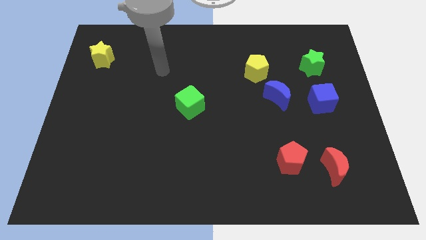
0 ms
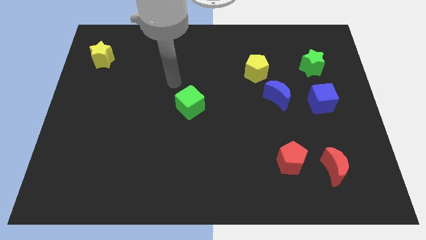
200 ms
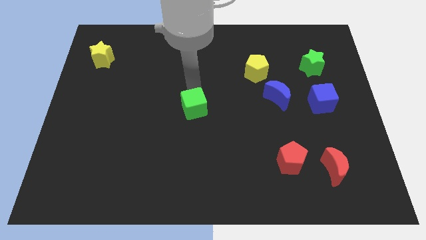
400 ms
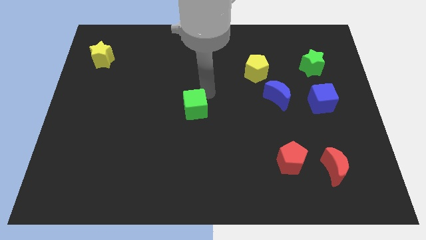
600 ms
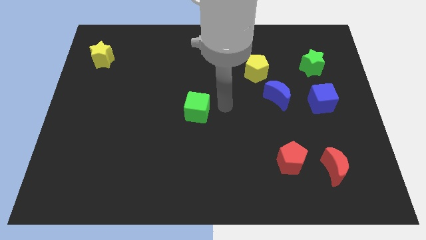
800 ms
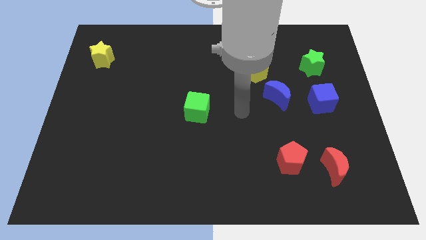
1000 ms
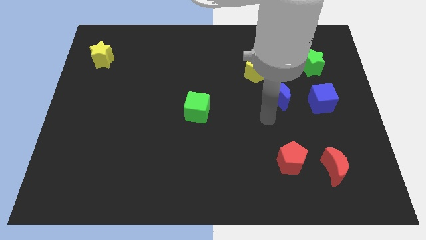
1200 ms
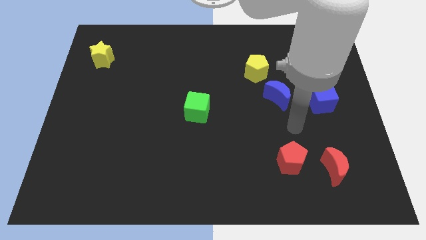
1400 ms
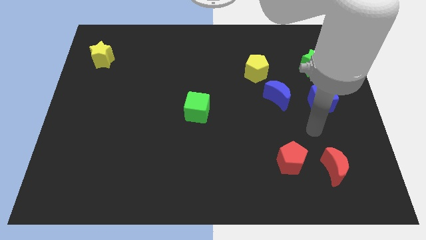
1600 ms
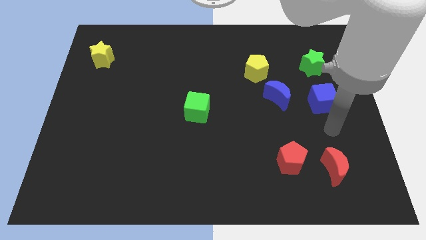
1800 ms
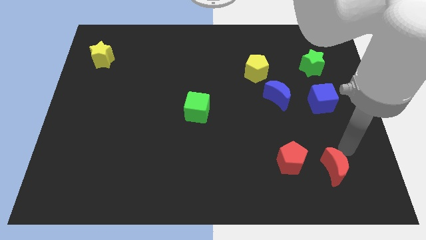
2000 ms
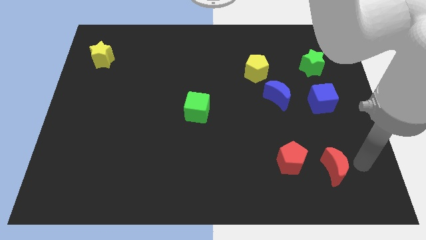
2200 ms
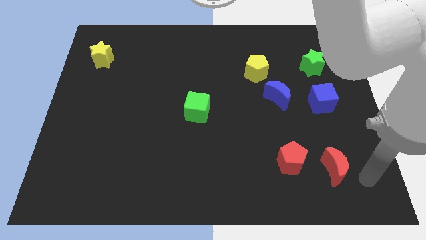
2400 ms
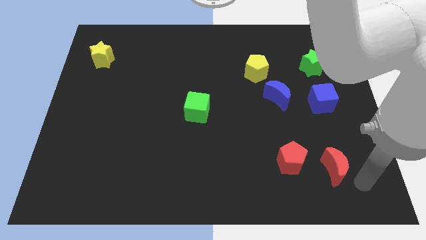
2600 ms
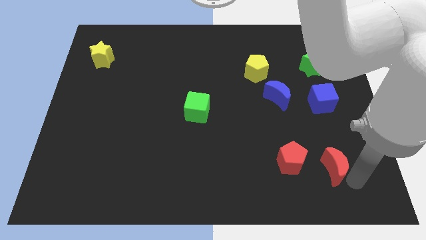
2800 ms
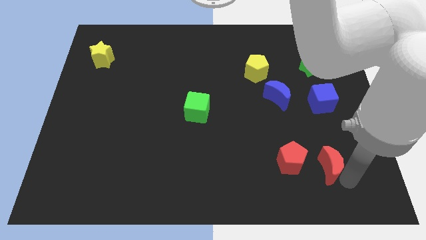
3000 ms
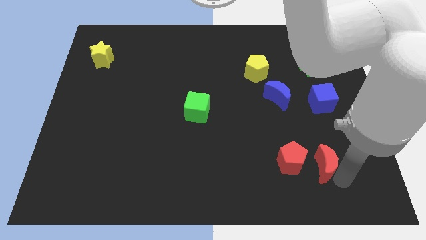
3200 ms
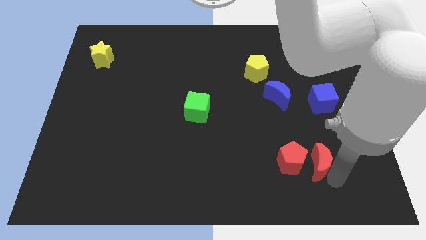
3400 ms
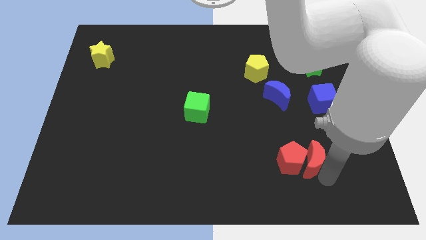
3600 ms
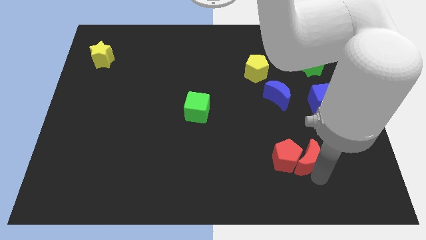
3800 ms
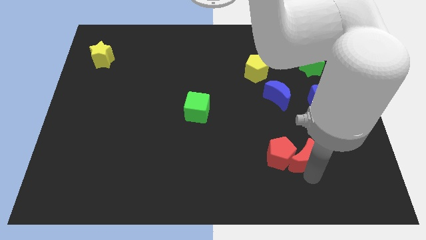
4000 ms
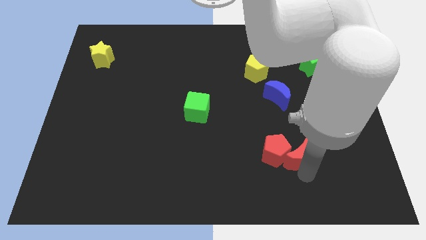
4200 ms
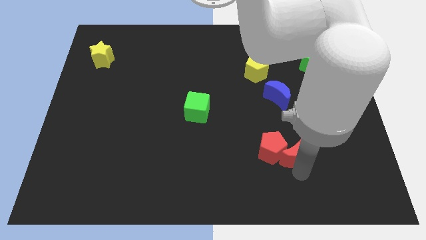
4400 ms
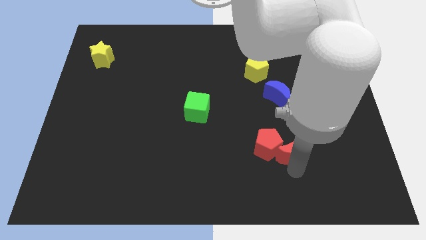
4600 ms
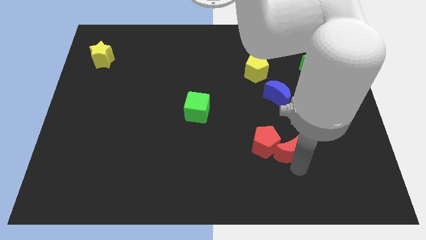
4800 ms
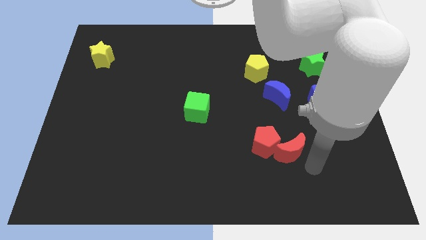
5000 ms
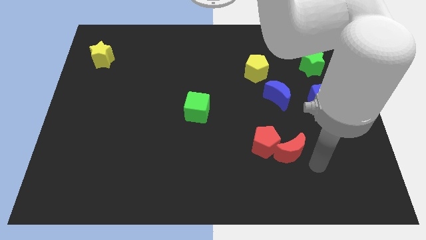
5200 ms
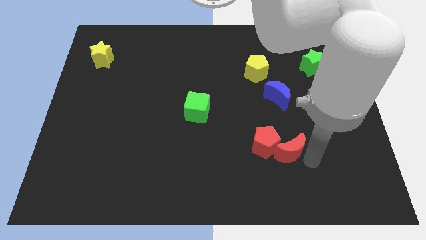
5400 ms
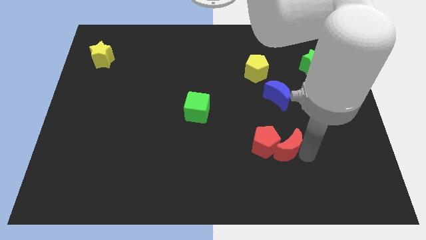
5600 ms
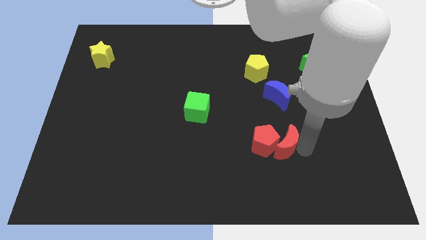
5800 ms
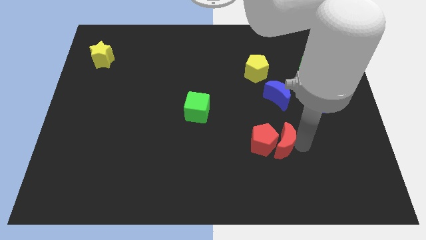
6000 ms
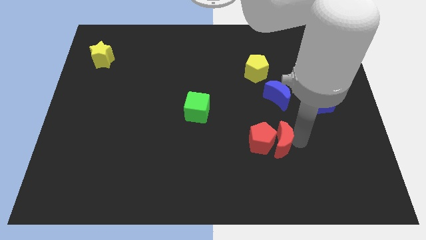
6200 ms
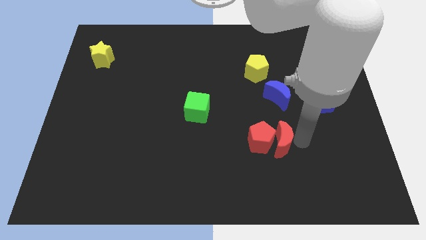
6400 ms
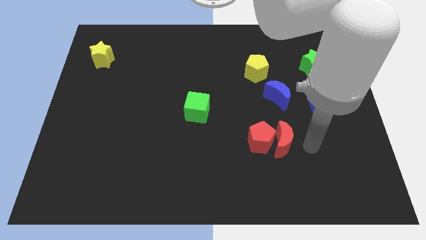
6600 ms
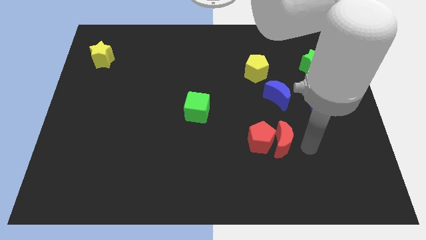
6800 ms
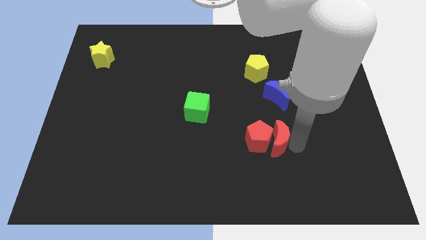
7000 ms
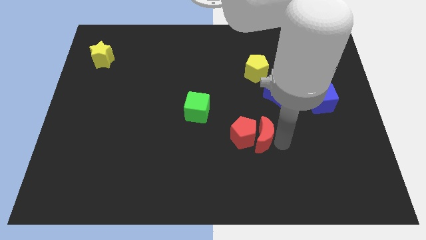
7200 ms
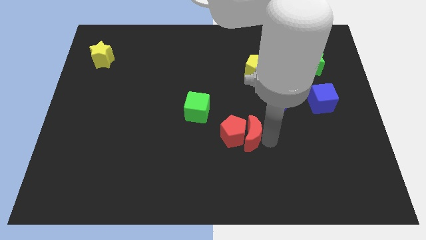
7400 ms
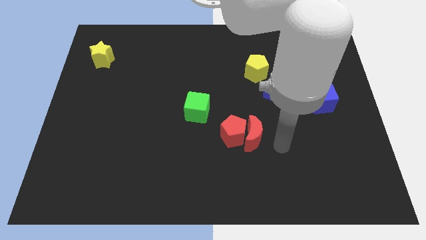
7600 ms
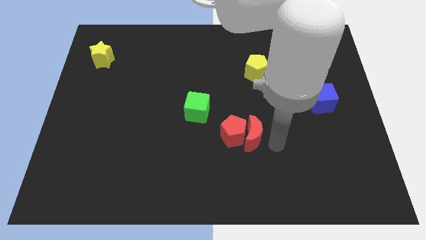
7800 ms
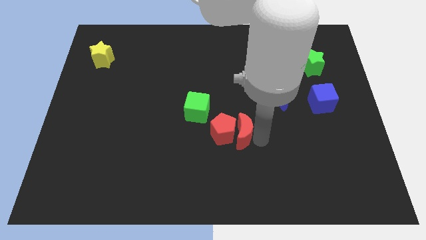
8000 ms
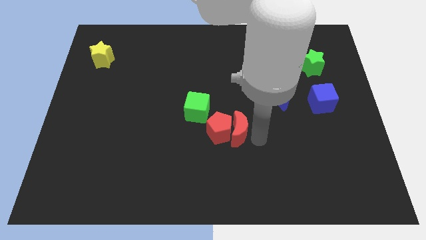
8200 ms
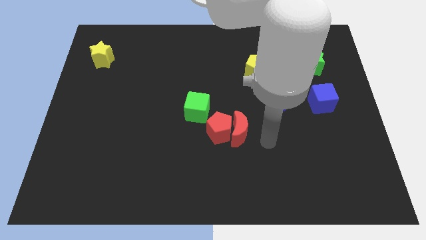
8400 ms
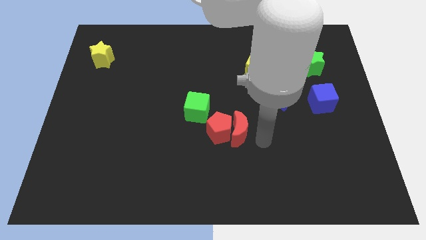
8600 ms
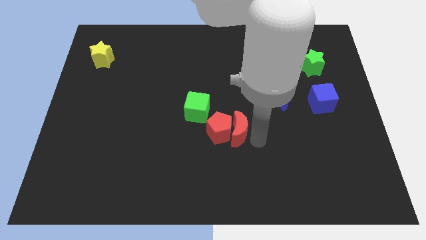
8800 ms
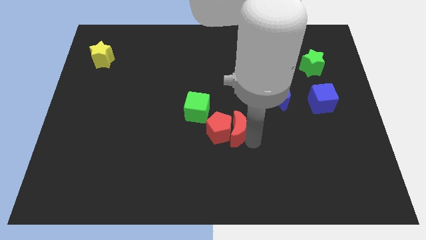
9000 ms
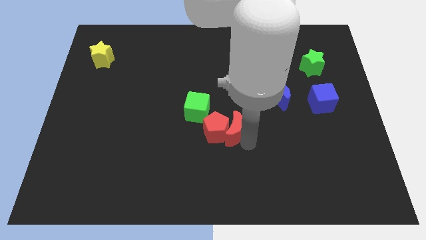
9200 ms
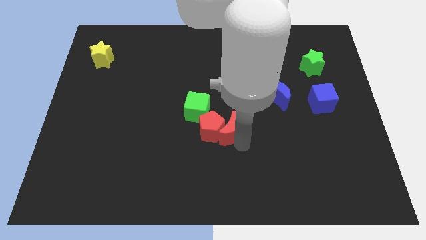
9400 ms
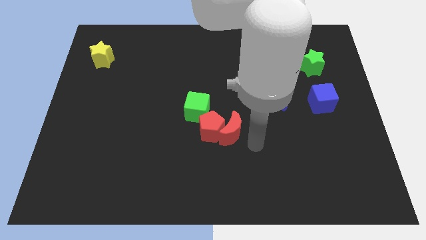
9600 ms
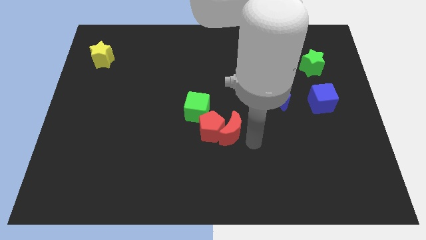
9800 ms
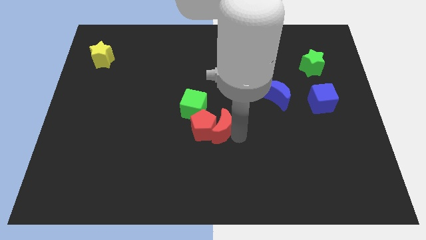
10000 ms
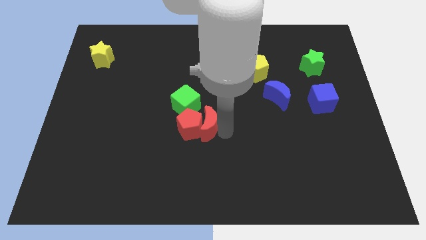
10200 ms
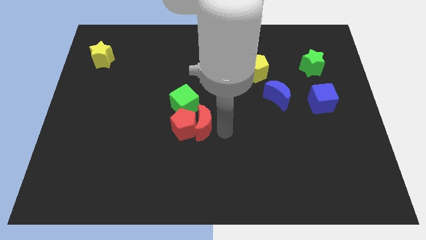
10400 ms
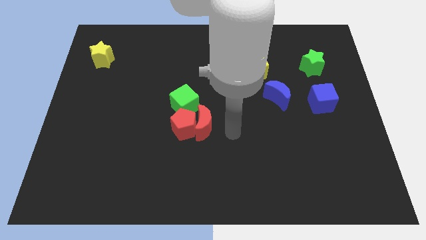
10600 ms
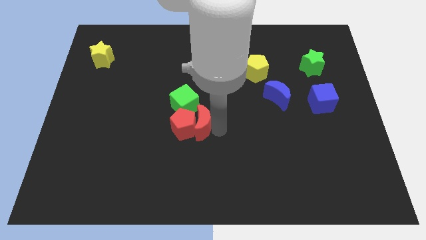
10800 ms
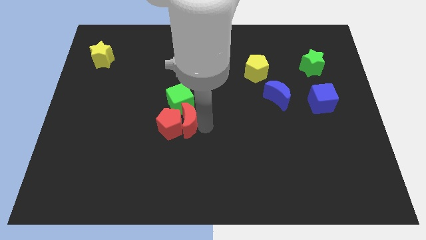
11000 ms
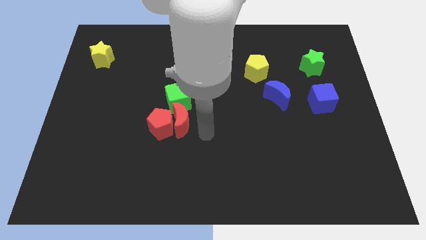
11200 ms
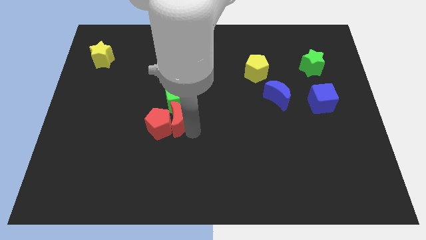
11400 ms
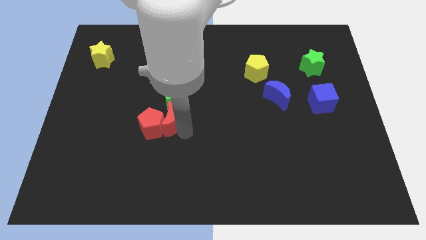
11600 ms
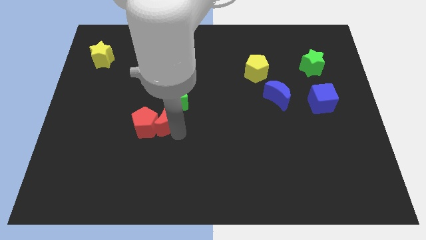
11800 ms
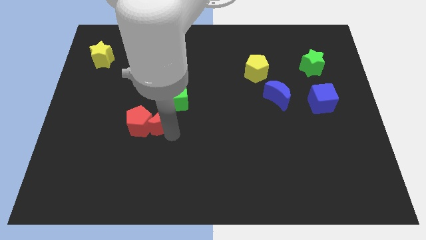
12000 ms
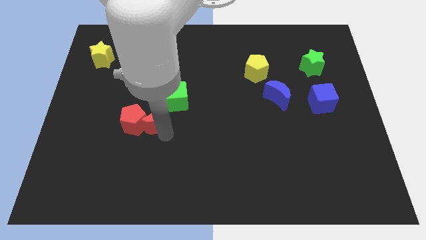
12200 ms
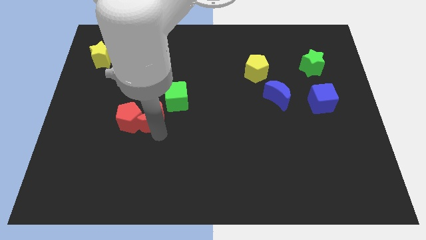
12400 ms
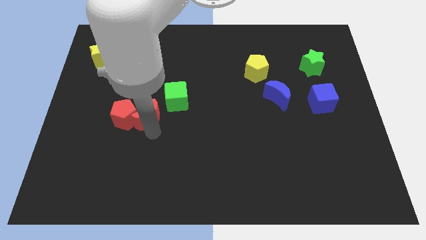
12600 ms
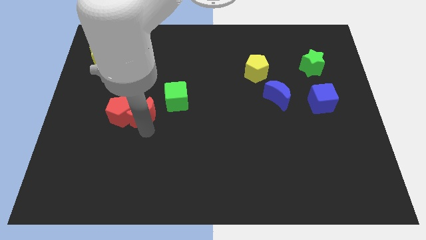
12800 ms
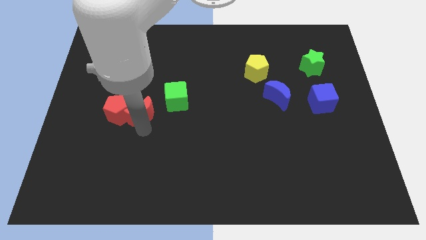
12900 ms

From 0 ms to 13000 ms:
put the red moon to the left side of the green cube

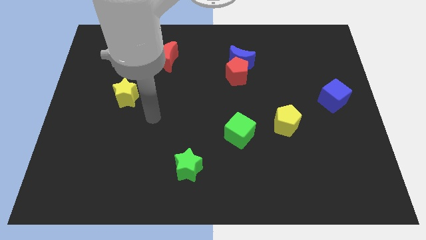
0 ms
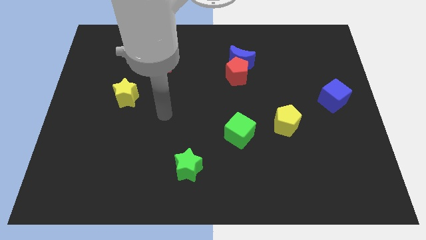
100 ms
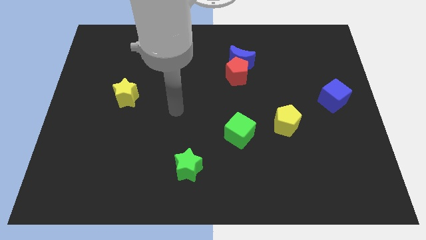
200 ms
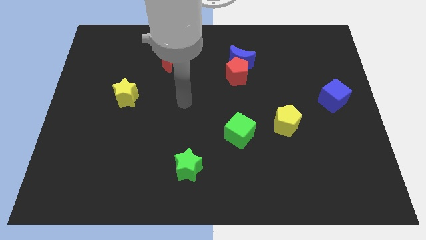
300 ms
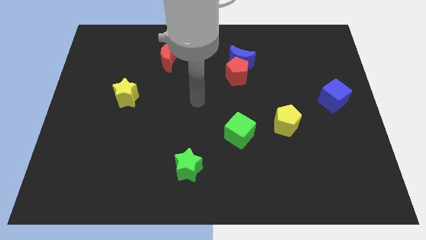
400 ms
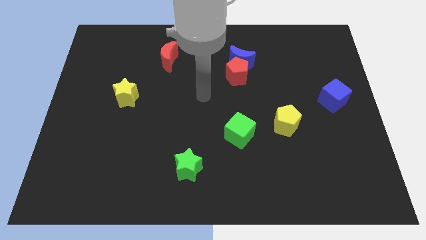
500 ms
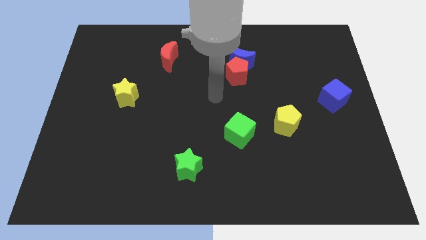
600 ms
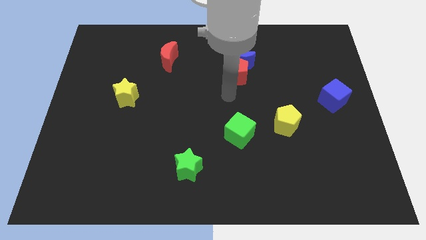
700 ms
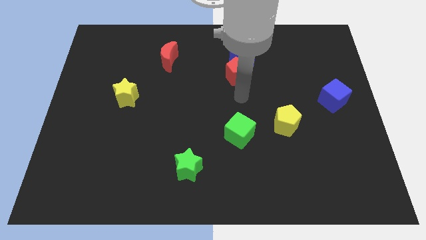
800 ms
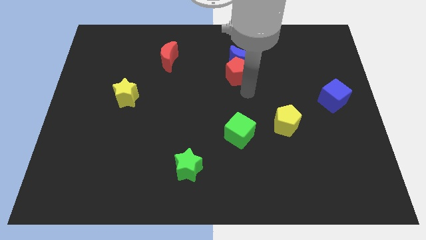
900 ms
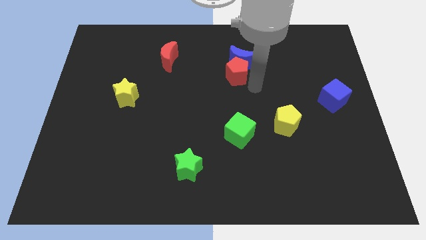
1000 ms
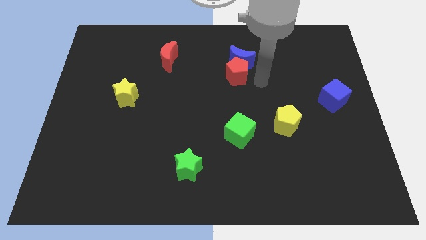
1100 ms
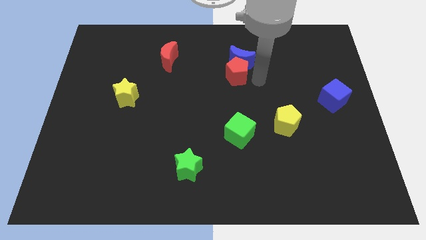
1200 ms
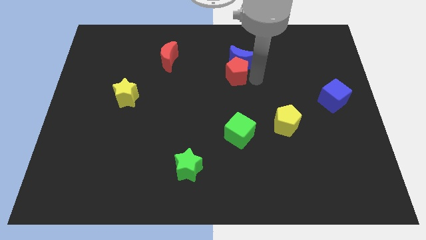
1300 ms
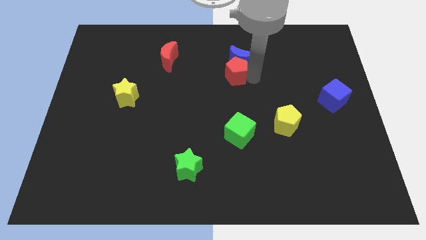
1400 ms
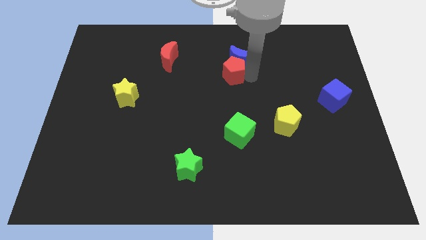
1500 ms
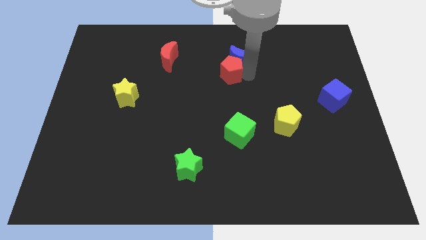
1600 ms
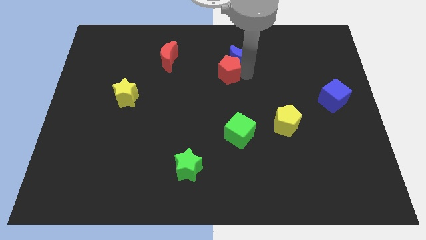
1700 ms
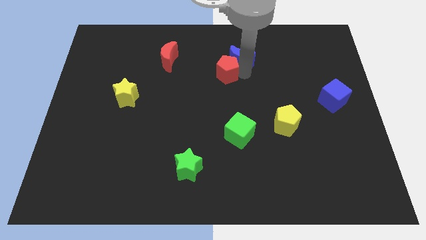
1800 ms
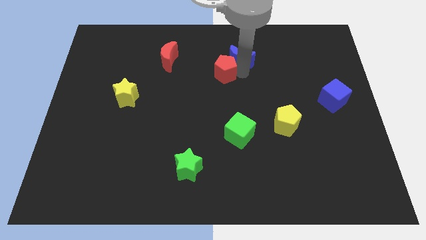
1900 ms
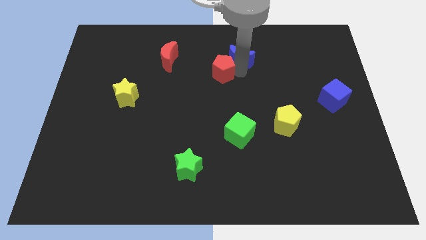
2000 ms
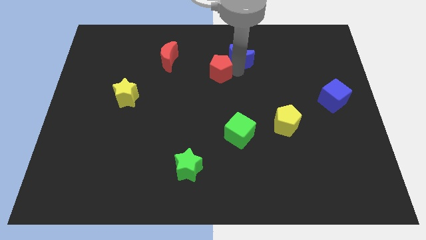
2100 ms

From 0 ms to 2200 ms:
push the red pentagon to the right side of the red moon
